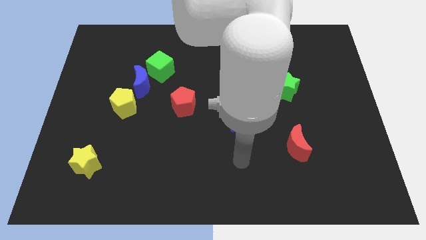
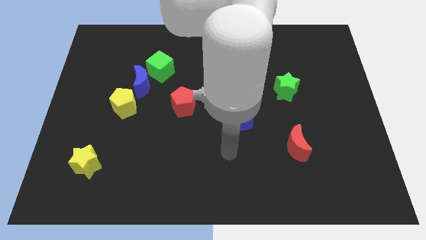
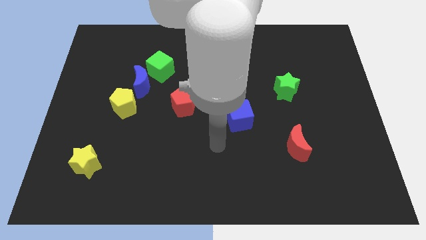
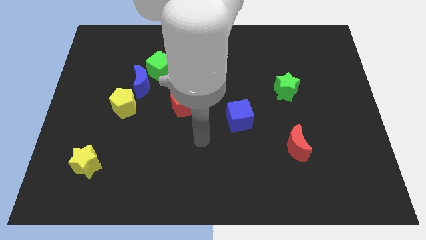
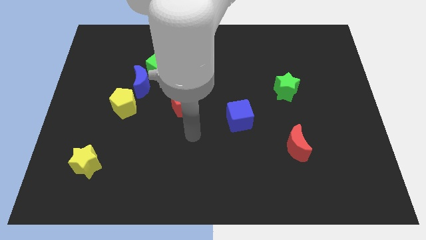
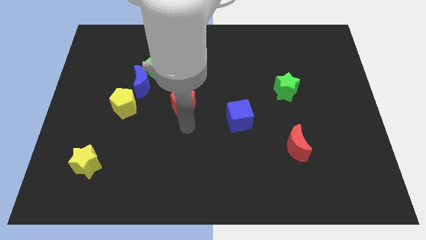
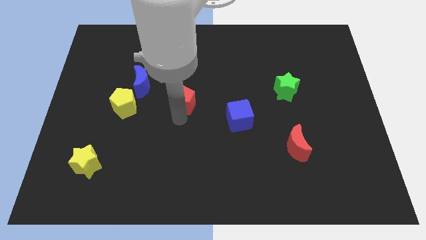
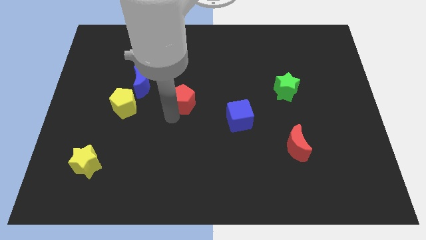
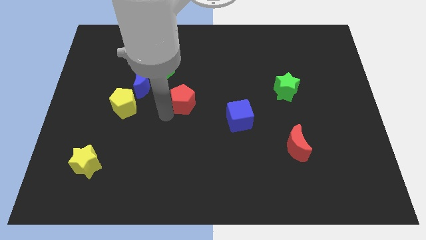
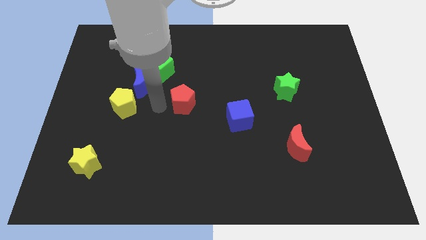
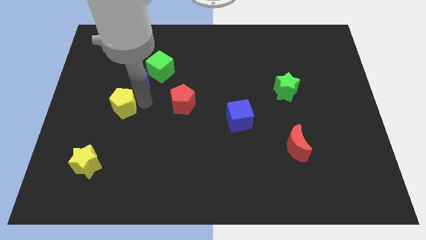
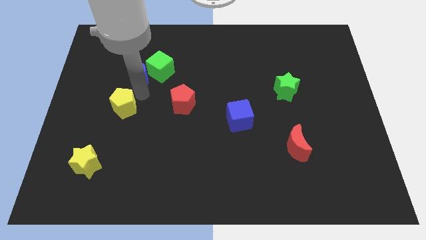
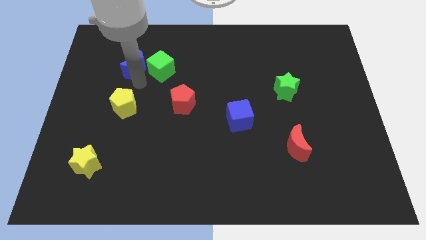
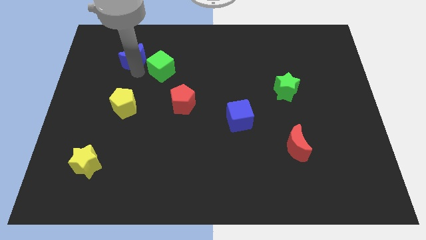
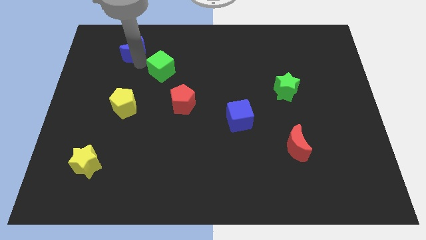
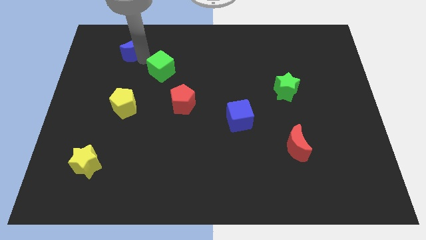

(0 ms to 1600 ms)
move the green cube away from the blue moon

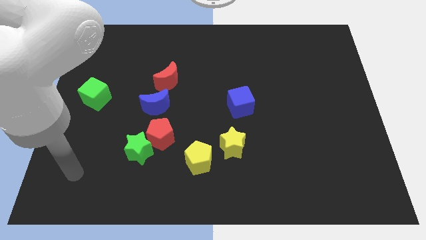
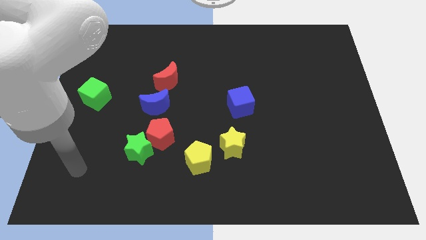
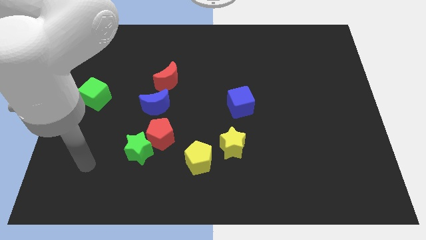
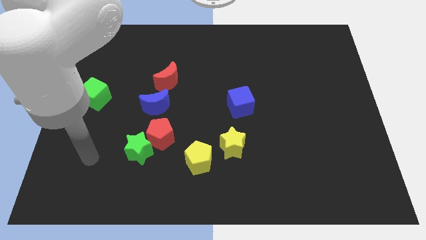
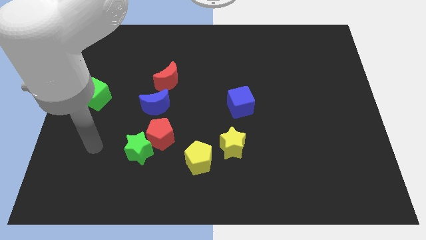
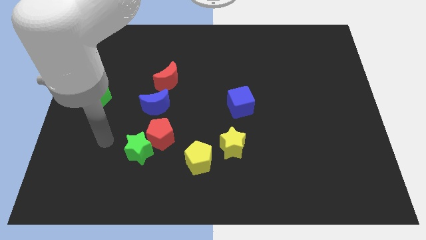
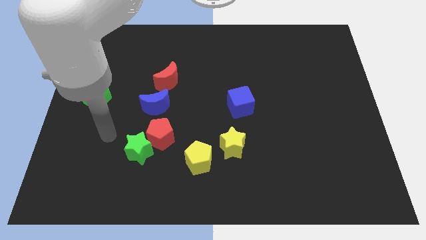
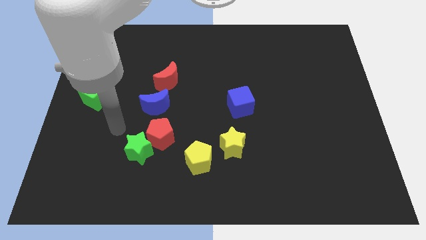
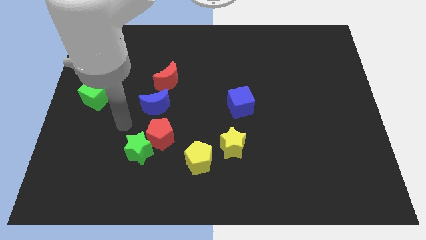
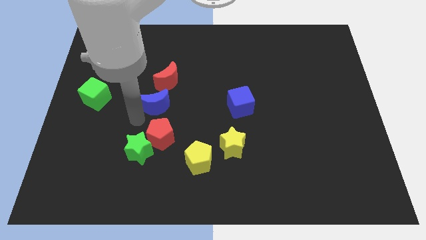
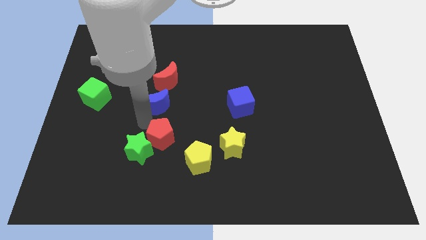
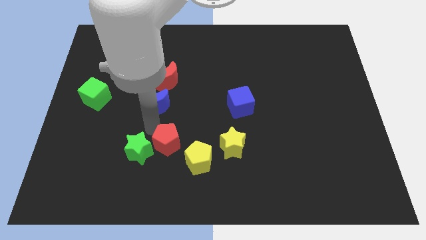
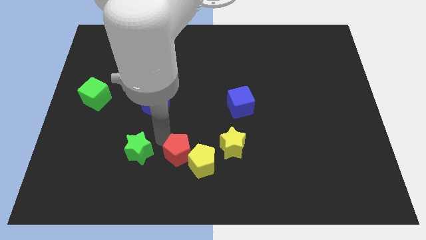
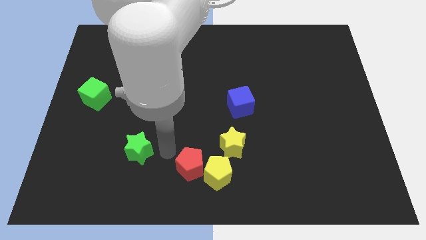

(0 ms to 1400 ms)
separate the green star from the red pentagon

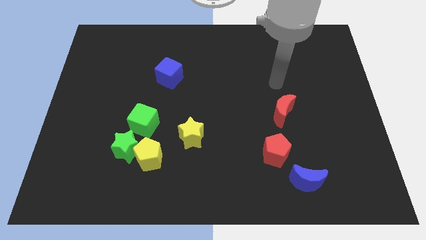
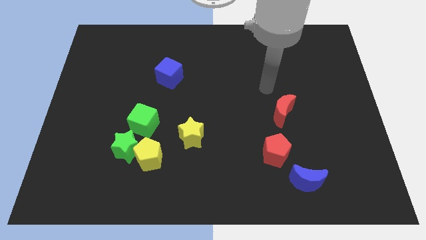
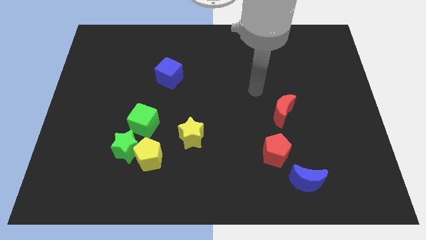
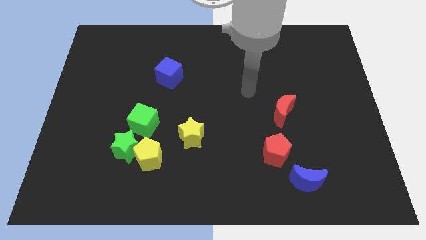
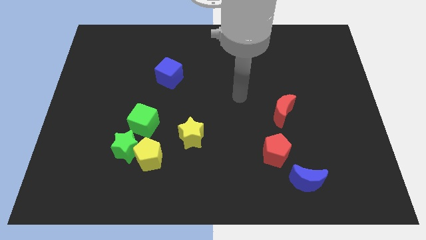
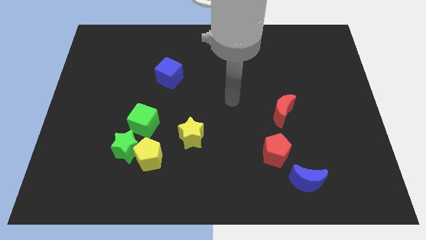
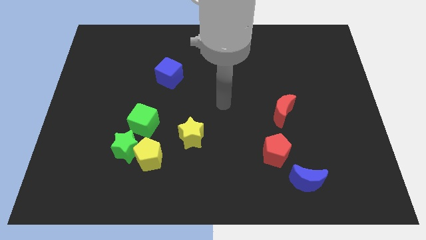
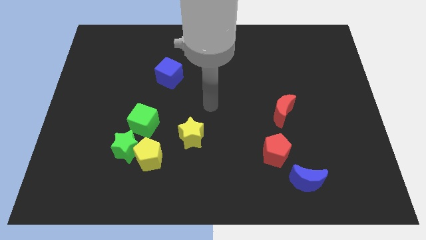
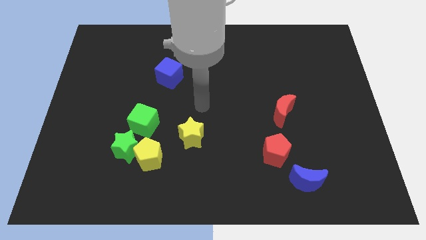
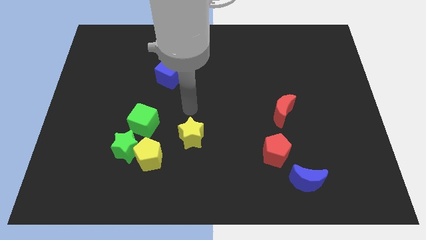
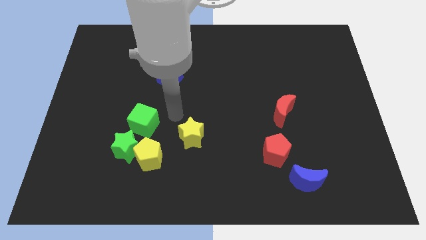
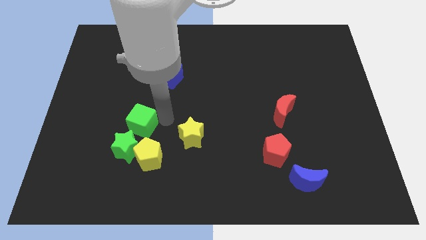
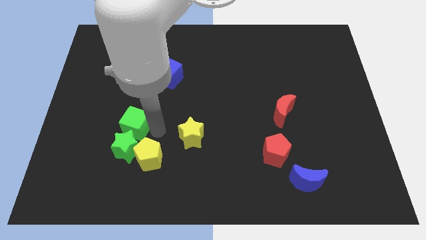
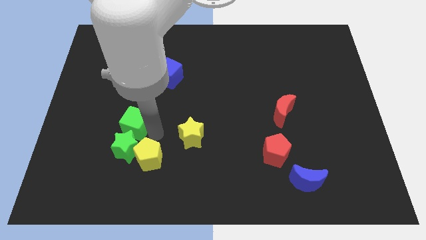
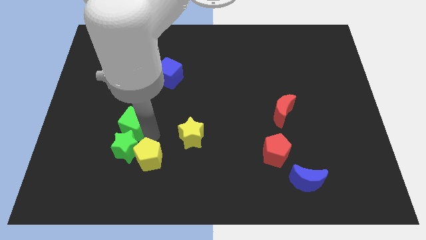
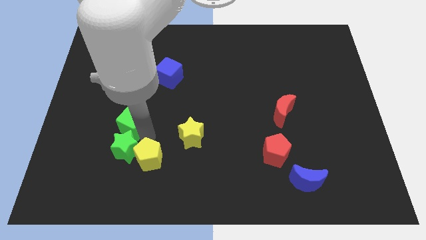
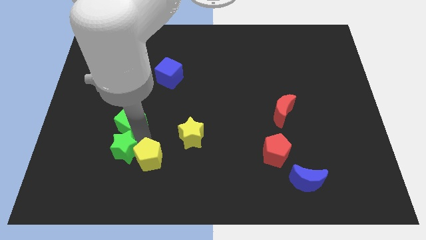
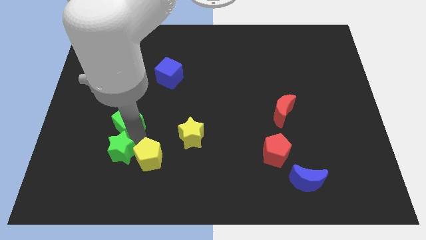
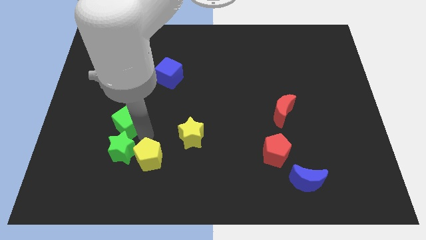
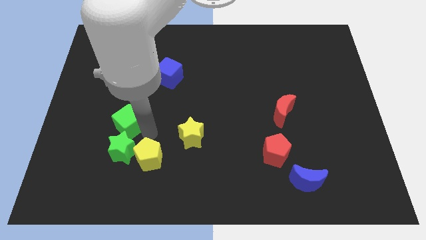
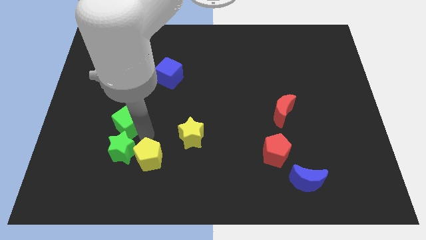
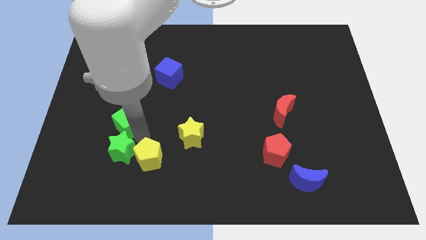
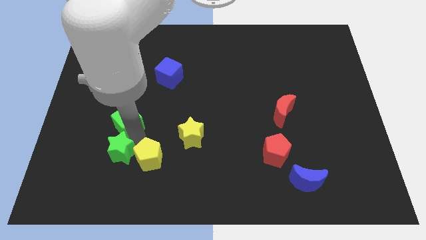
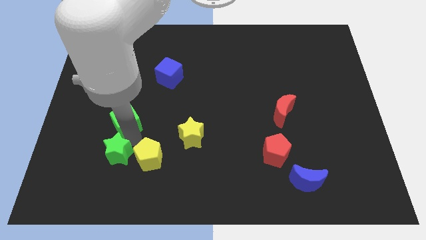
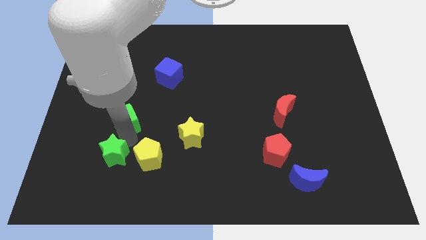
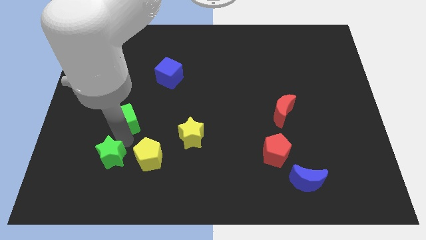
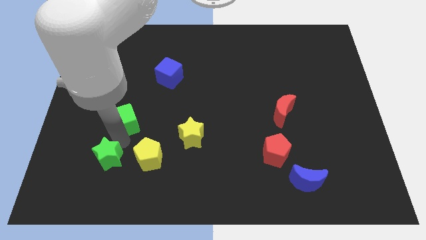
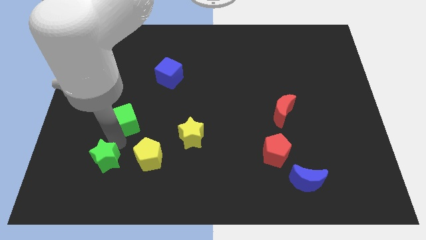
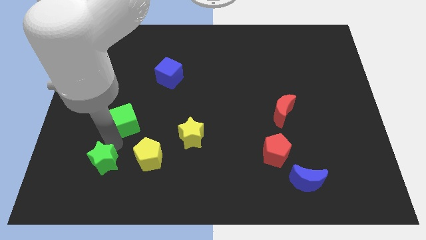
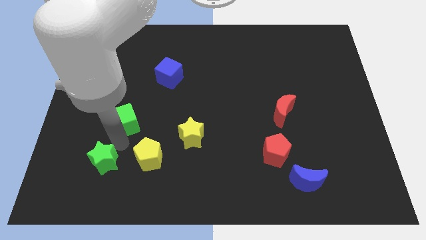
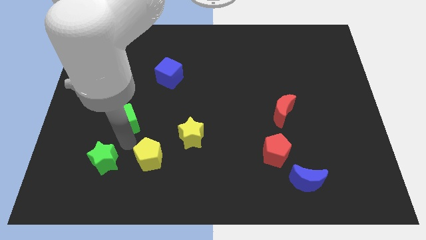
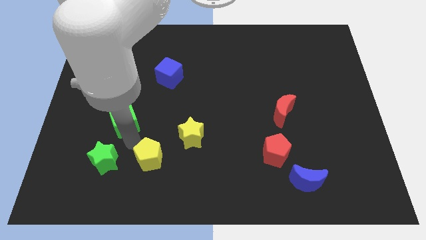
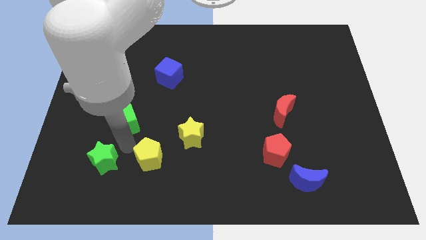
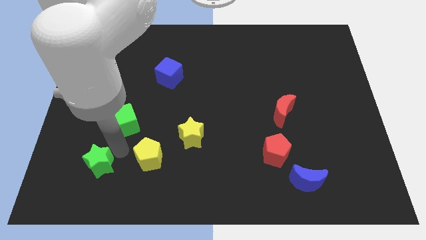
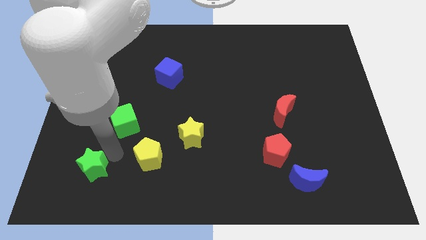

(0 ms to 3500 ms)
pull the green star apart from the yellow pentagon and green cube

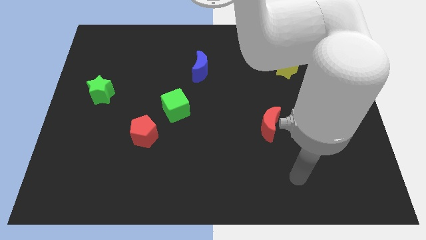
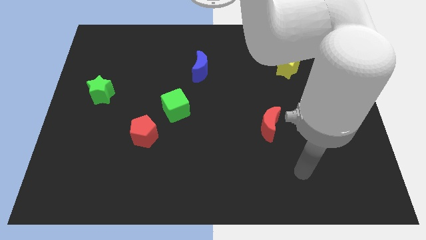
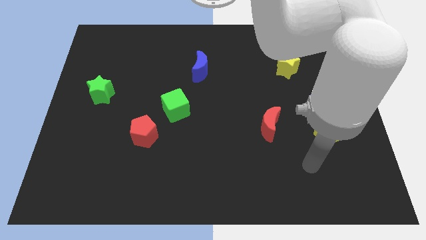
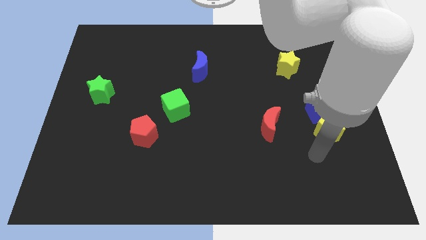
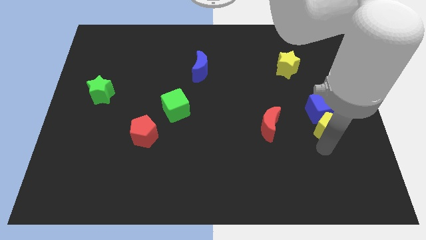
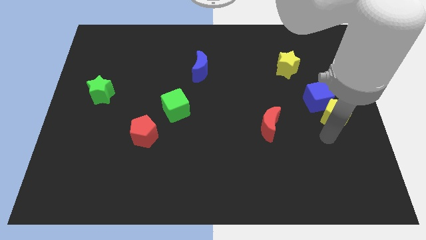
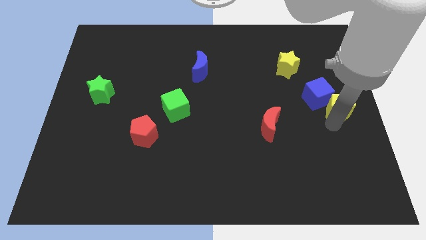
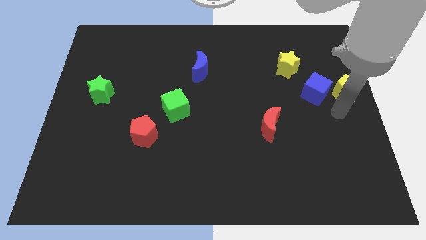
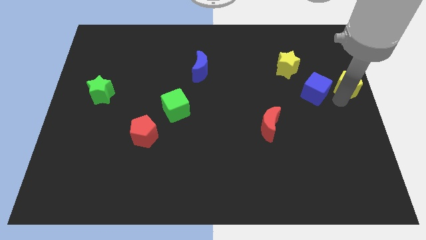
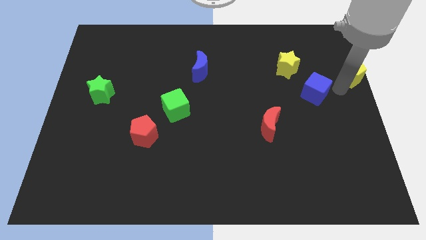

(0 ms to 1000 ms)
pull the blue cube apart from the yellow pentagon

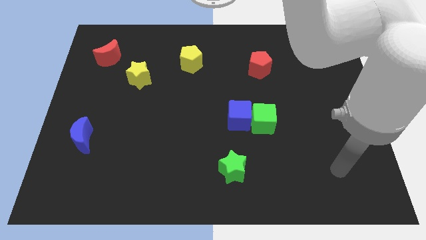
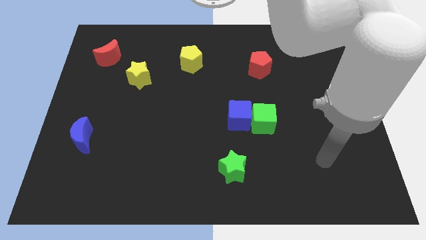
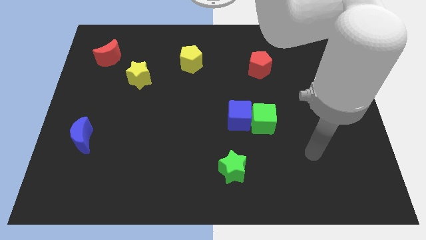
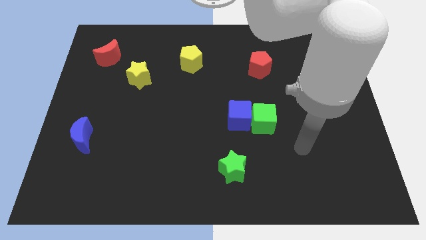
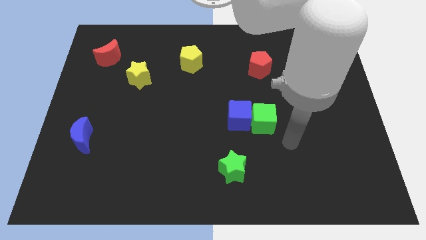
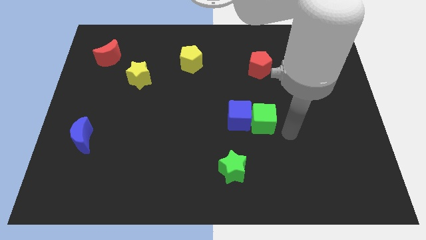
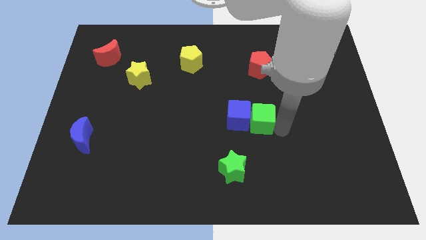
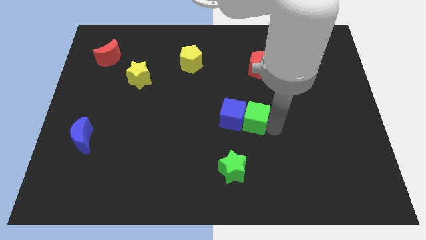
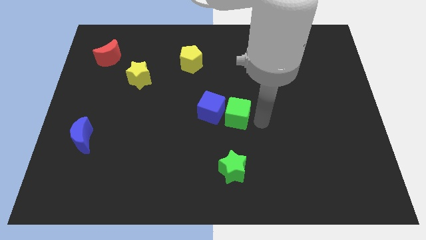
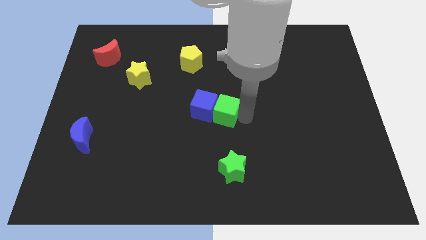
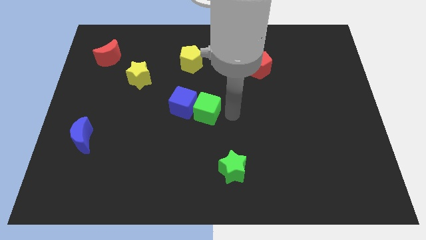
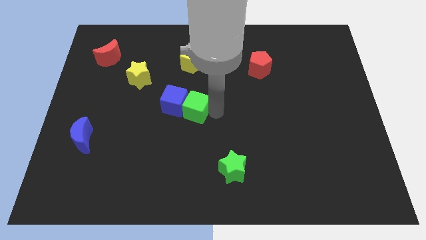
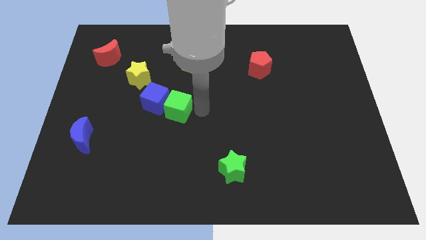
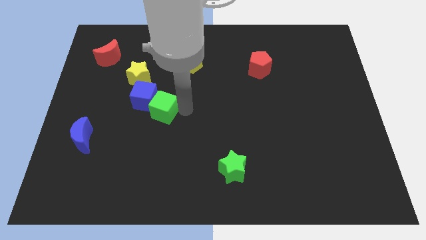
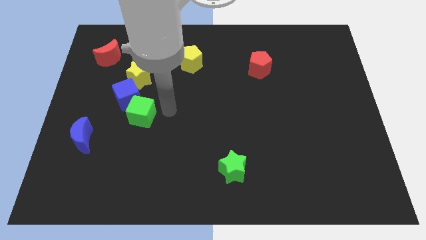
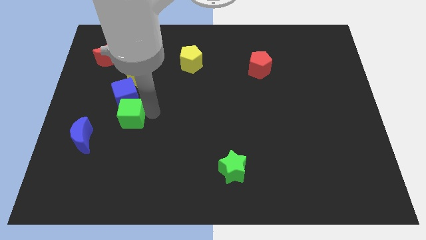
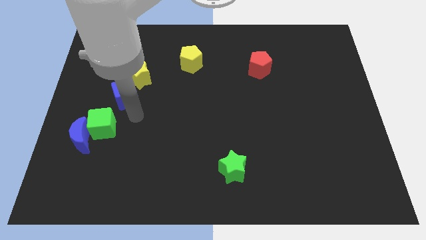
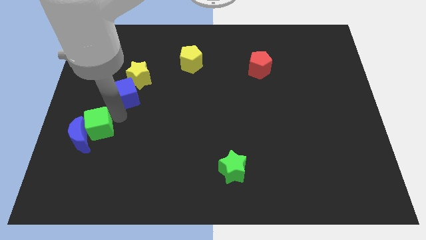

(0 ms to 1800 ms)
pull the blue cube apart from the green cube
